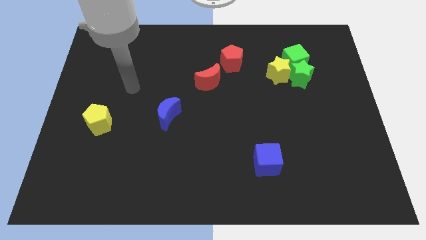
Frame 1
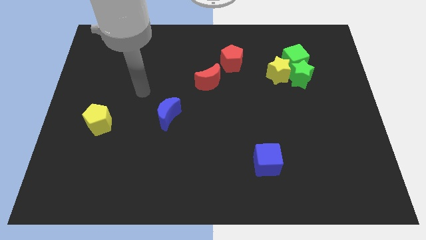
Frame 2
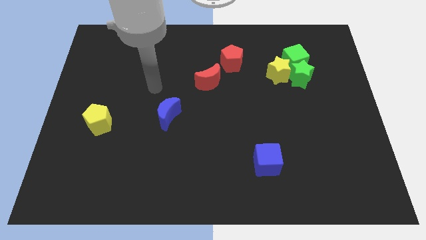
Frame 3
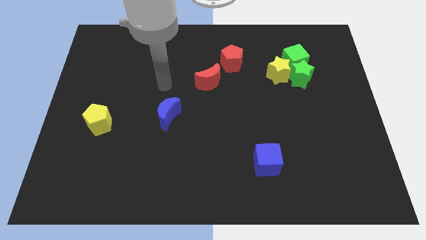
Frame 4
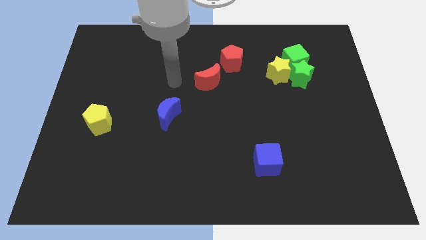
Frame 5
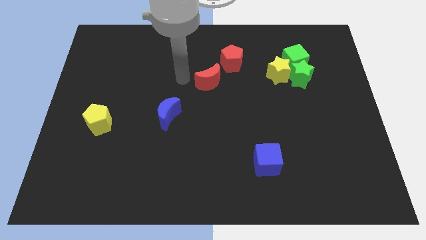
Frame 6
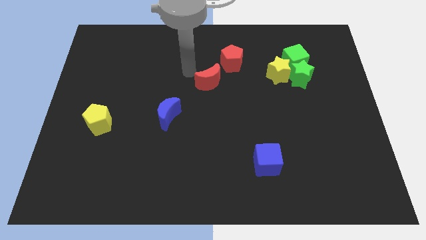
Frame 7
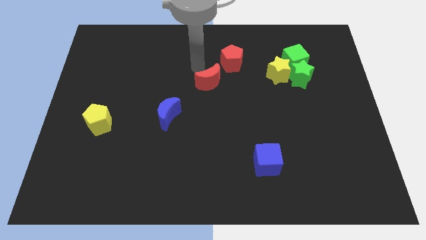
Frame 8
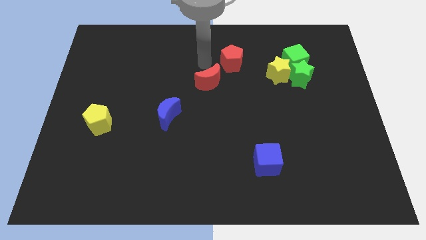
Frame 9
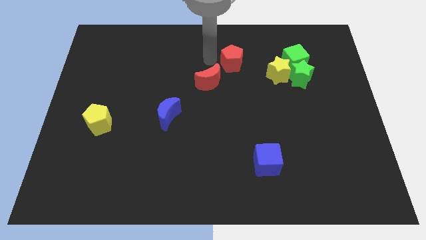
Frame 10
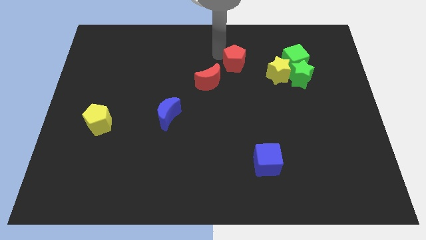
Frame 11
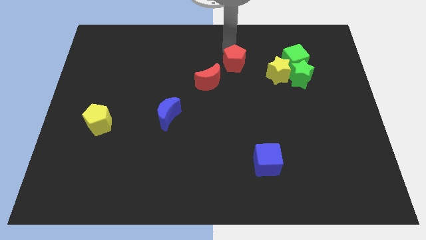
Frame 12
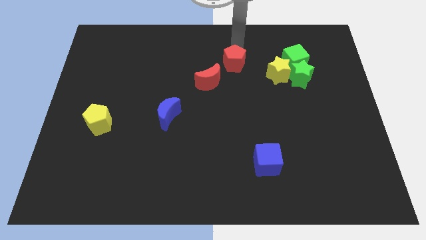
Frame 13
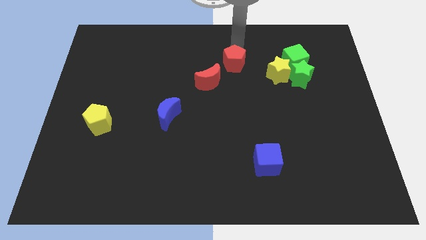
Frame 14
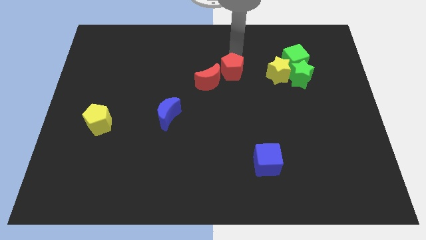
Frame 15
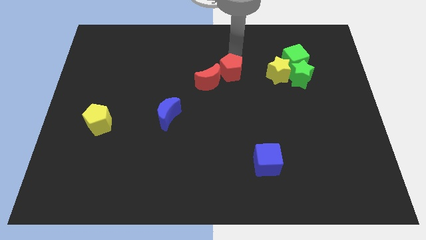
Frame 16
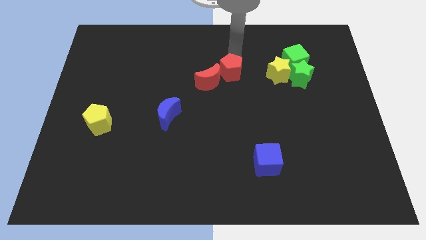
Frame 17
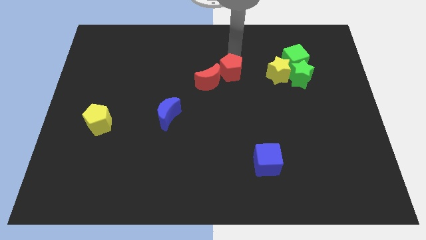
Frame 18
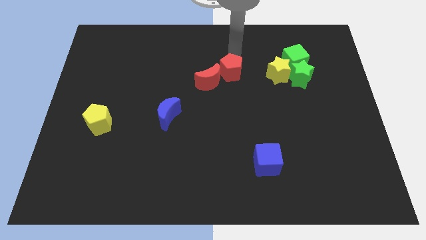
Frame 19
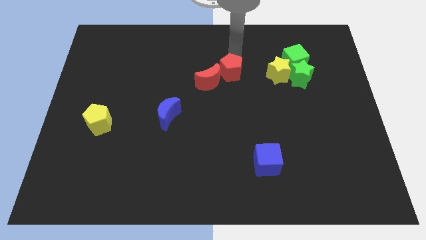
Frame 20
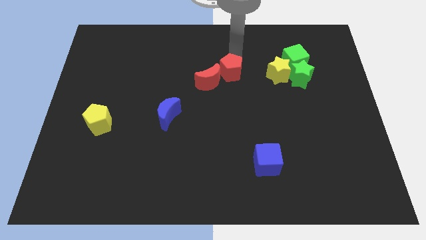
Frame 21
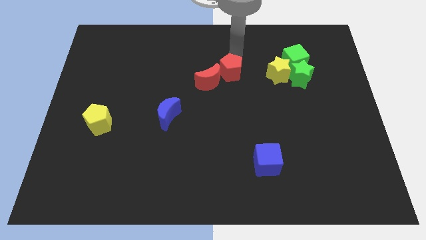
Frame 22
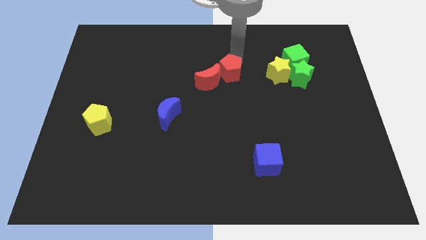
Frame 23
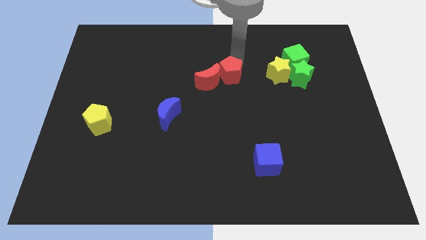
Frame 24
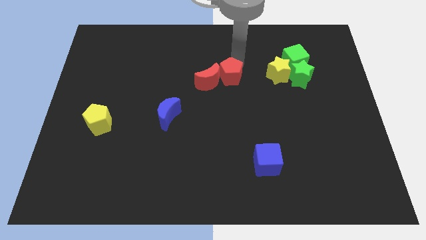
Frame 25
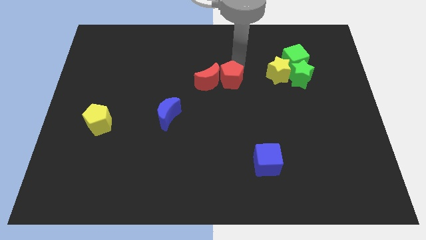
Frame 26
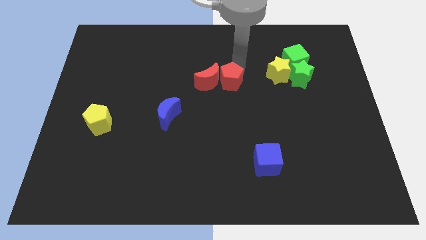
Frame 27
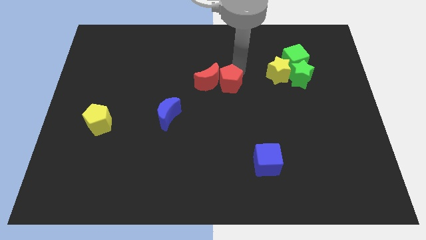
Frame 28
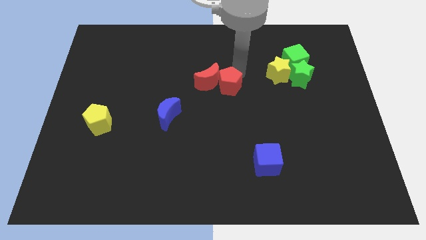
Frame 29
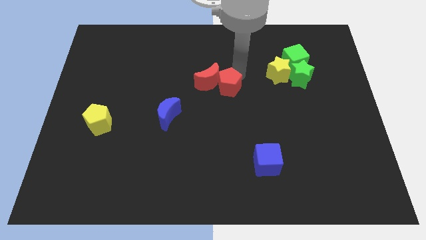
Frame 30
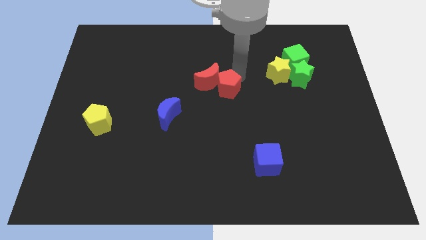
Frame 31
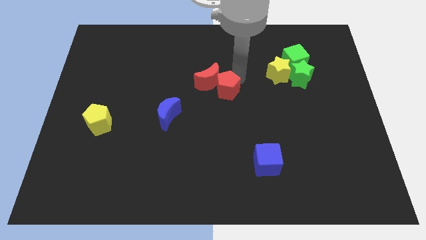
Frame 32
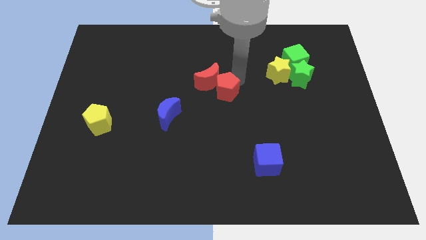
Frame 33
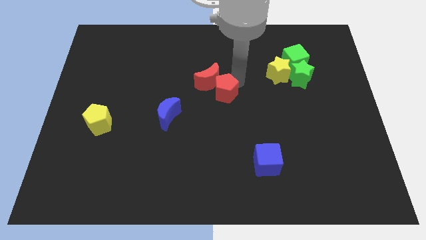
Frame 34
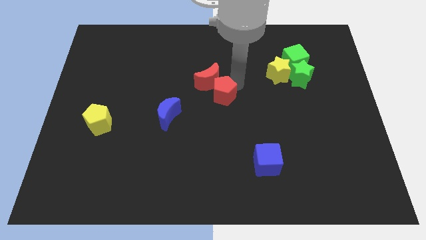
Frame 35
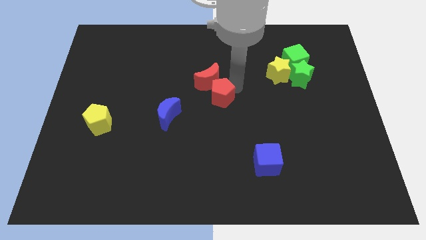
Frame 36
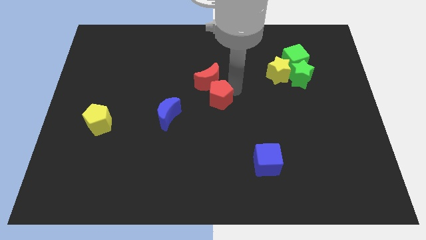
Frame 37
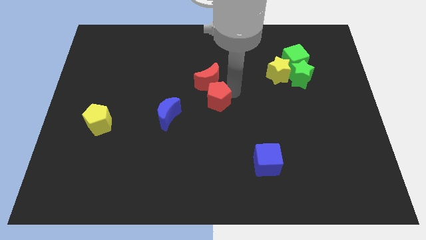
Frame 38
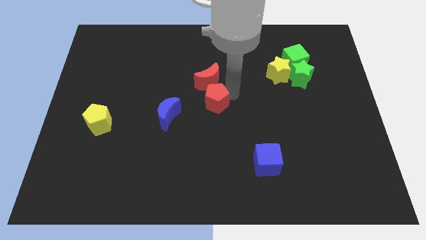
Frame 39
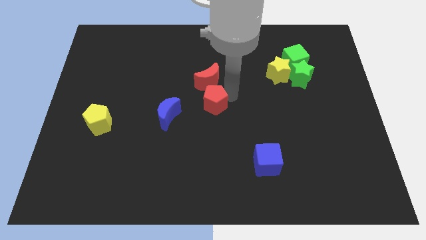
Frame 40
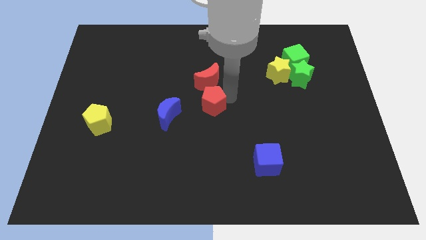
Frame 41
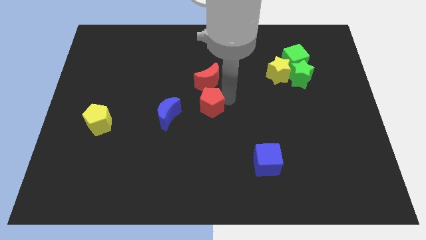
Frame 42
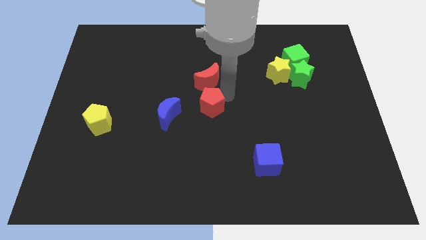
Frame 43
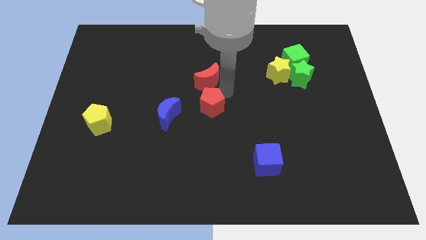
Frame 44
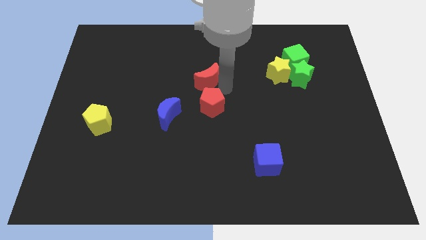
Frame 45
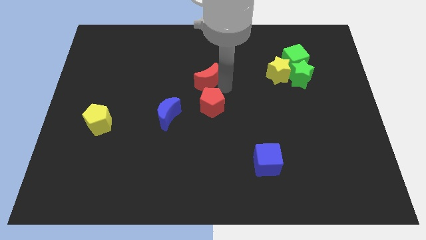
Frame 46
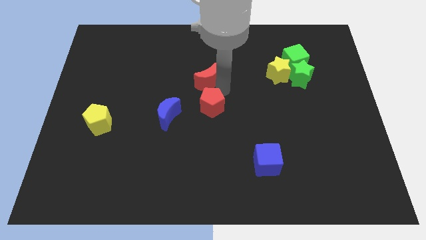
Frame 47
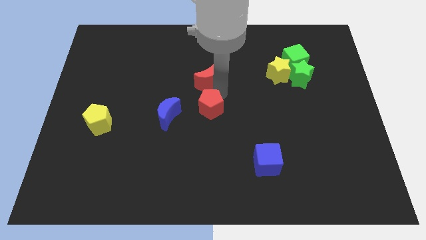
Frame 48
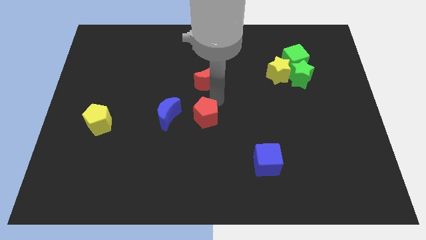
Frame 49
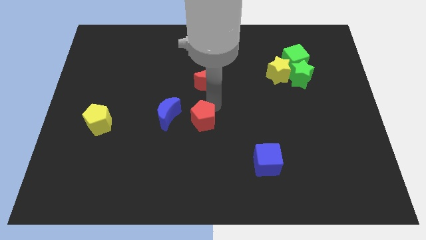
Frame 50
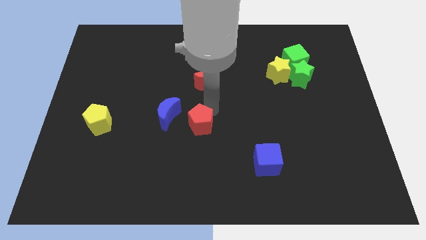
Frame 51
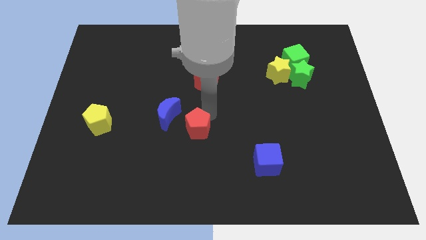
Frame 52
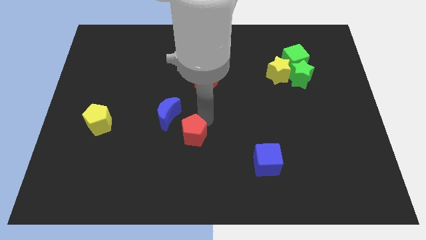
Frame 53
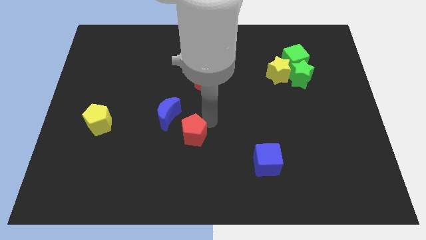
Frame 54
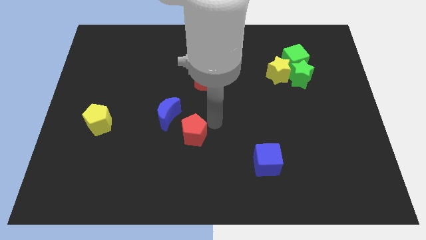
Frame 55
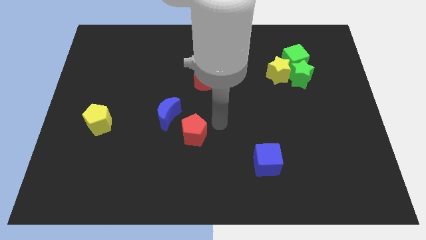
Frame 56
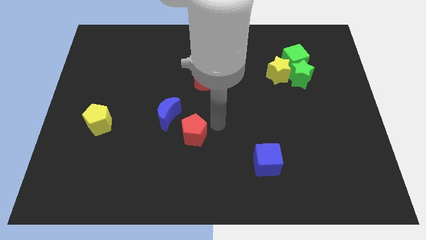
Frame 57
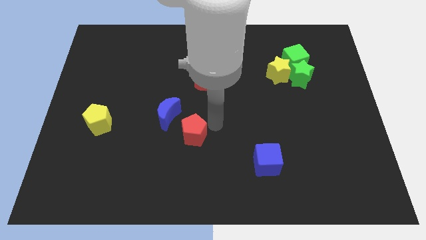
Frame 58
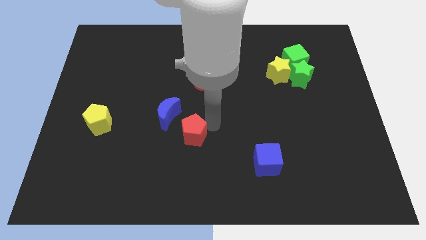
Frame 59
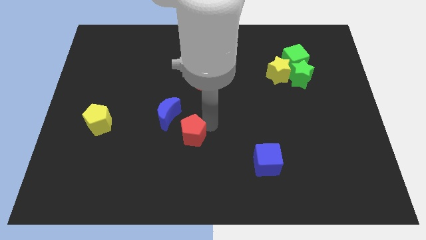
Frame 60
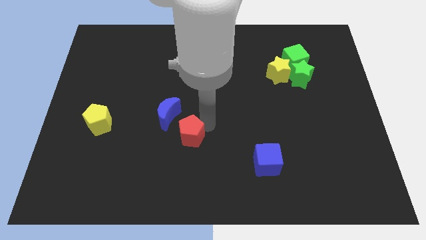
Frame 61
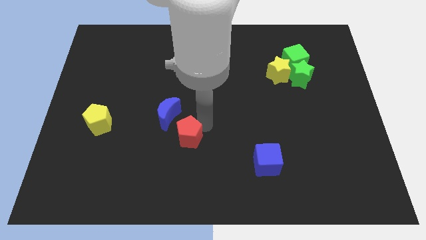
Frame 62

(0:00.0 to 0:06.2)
push the red pentagon below the blue moon

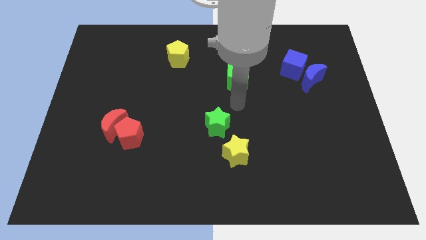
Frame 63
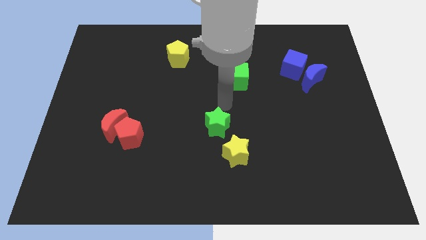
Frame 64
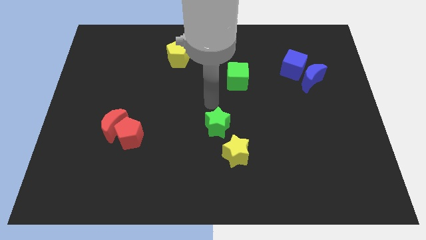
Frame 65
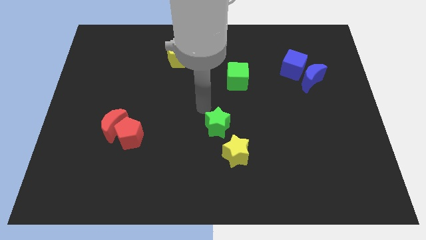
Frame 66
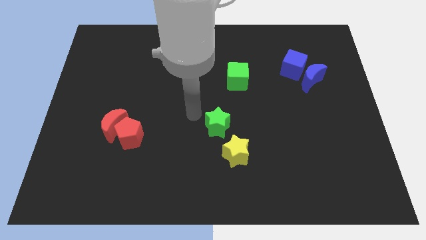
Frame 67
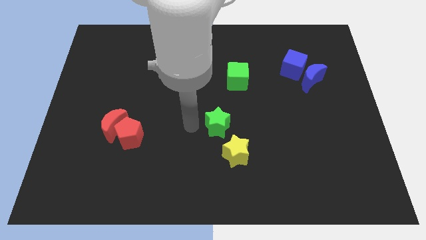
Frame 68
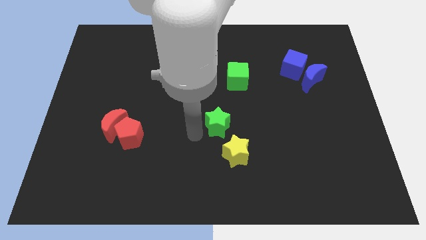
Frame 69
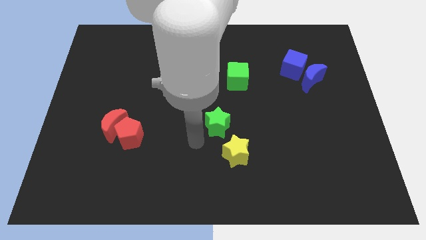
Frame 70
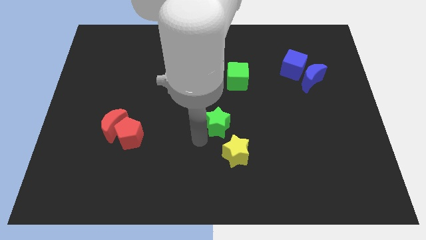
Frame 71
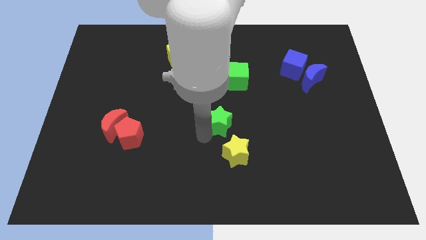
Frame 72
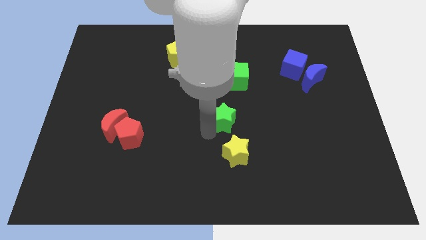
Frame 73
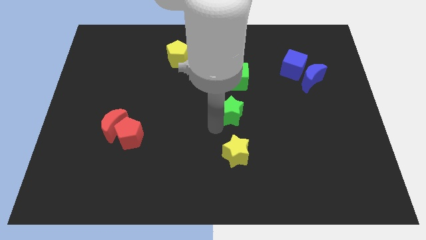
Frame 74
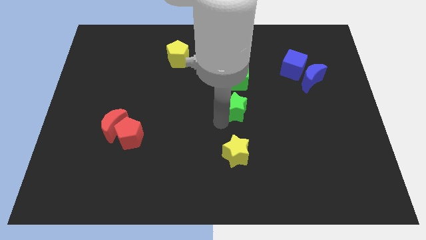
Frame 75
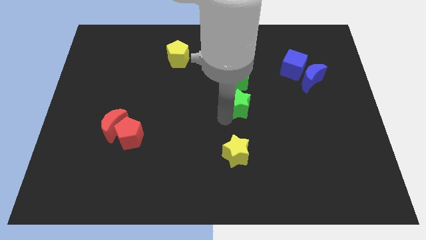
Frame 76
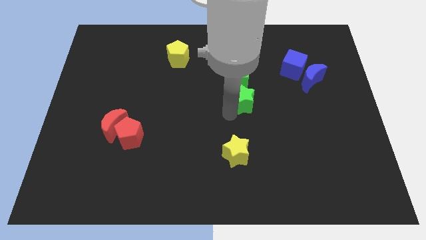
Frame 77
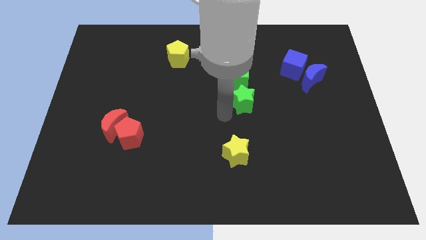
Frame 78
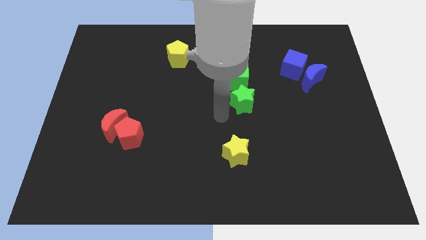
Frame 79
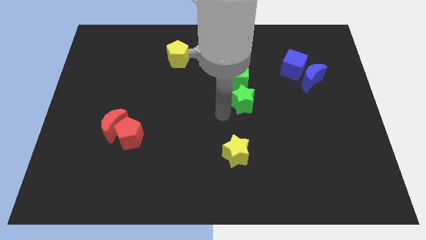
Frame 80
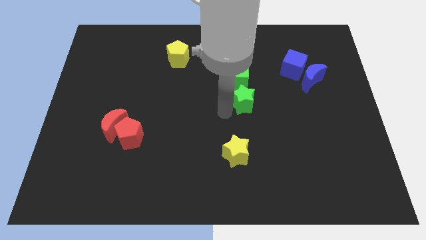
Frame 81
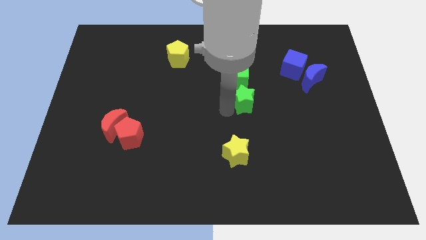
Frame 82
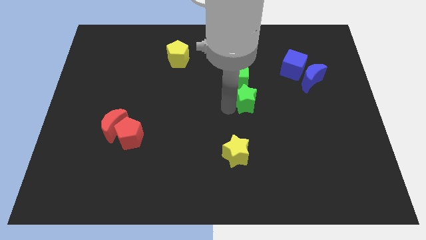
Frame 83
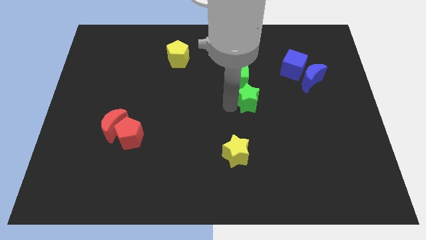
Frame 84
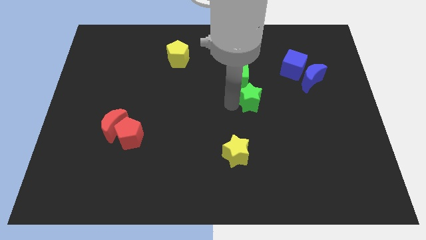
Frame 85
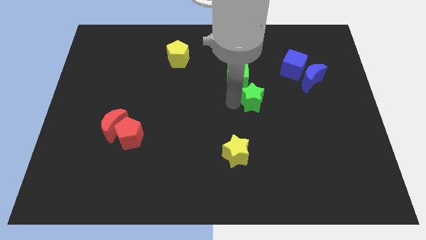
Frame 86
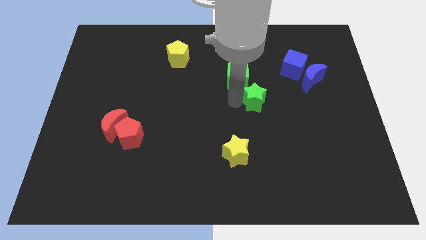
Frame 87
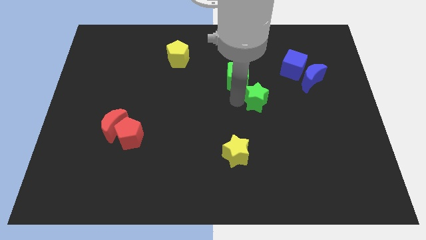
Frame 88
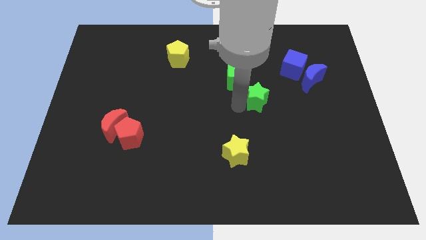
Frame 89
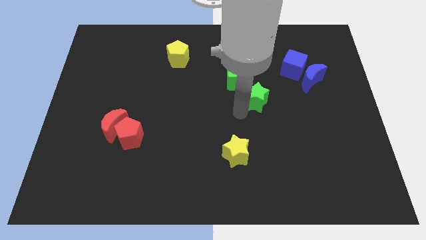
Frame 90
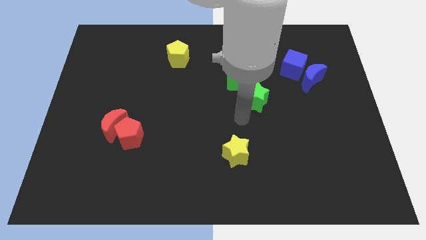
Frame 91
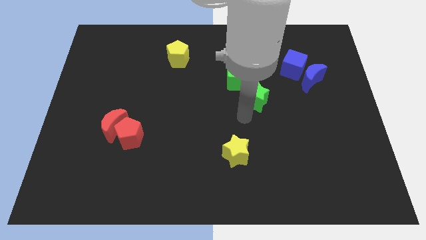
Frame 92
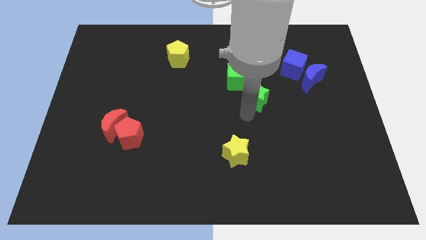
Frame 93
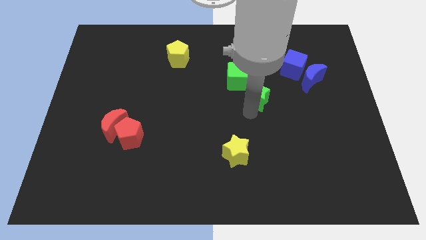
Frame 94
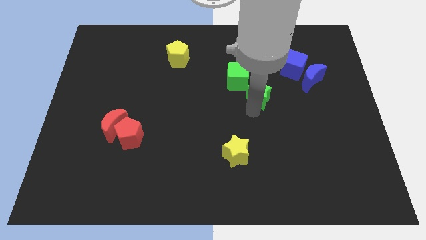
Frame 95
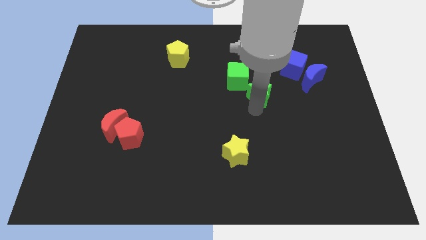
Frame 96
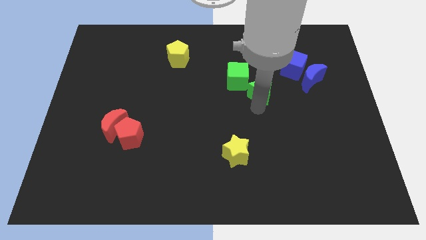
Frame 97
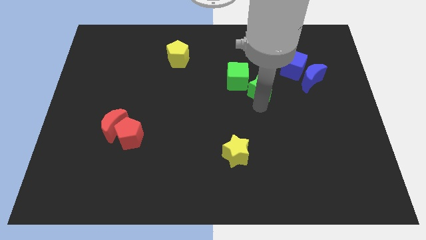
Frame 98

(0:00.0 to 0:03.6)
move the green star to the left of the blue moon
